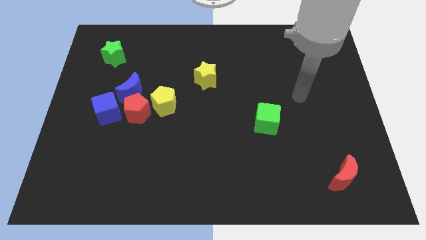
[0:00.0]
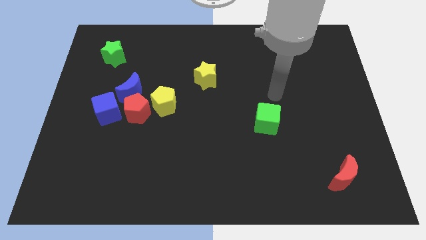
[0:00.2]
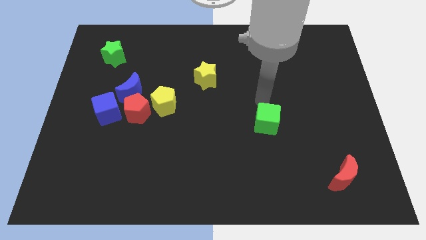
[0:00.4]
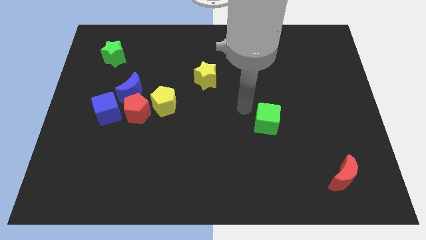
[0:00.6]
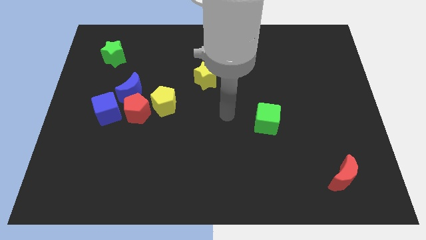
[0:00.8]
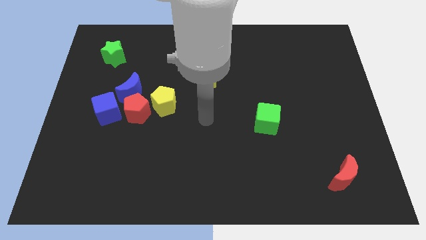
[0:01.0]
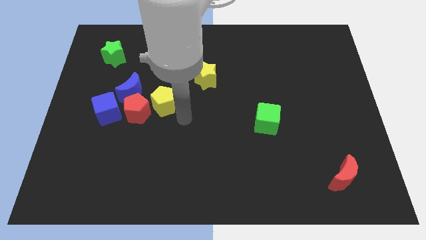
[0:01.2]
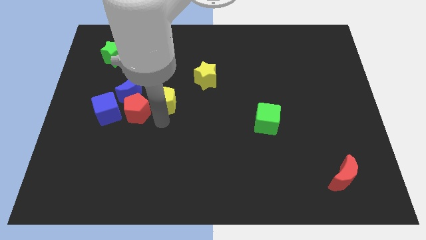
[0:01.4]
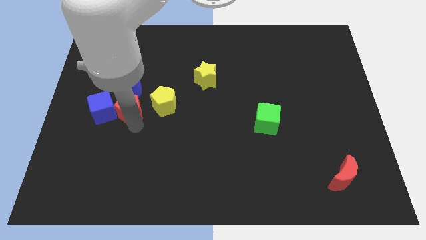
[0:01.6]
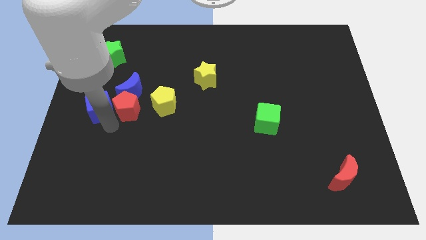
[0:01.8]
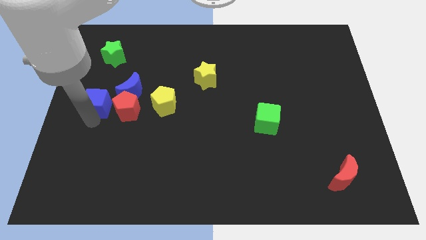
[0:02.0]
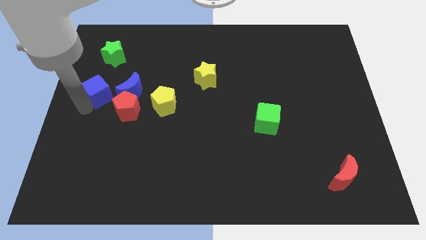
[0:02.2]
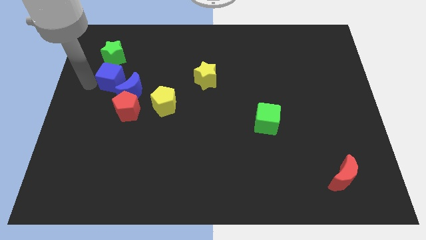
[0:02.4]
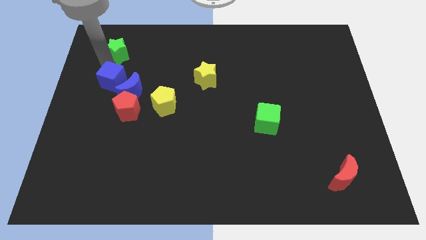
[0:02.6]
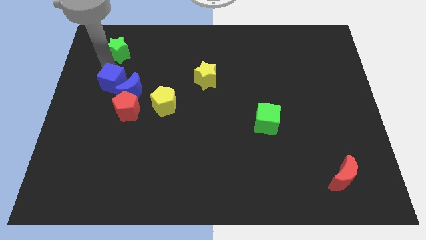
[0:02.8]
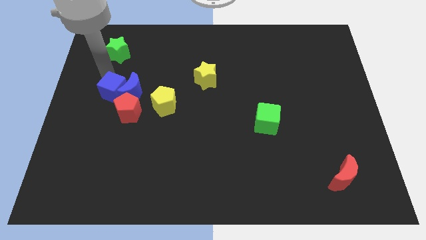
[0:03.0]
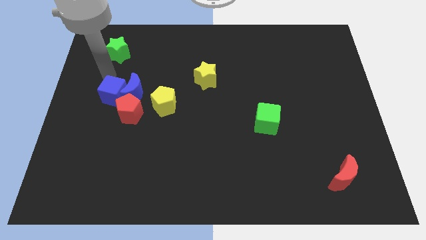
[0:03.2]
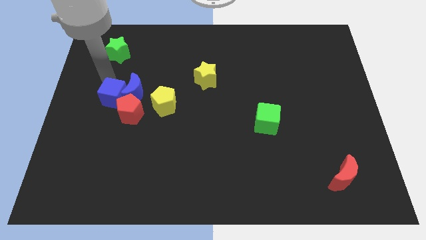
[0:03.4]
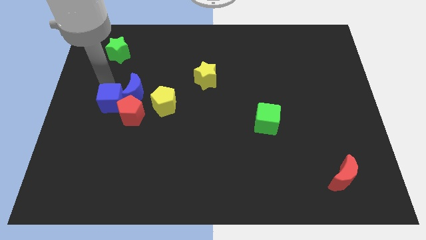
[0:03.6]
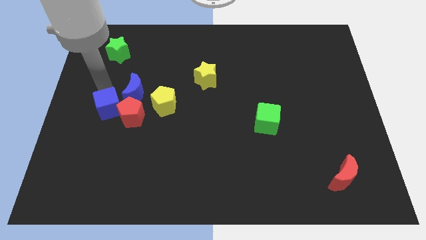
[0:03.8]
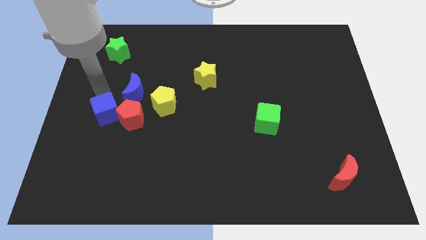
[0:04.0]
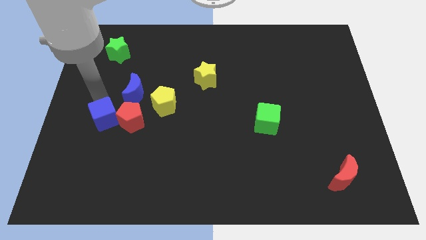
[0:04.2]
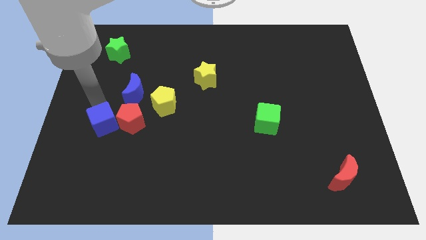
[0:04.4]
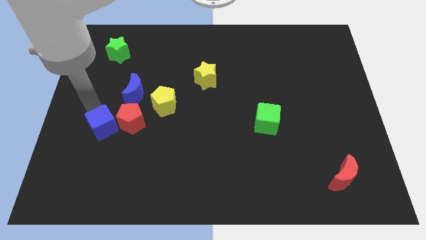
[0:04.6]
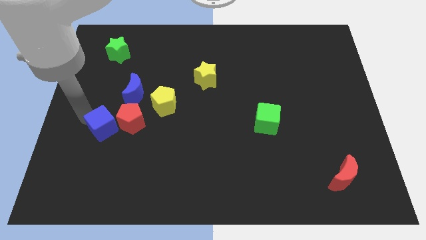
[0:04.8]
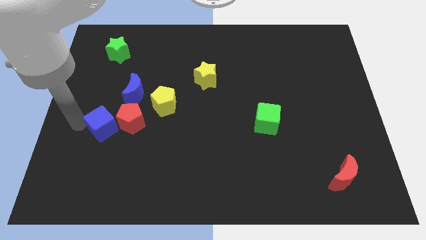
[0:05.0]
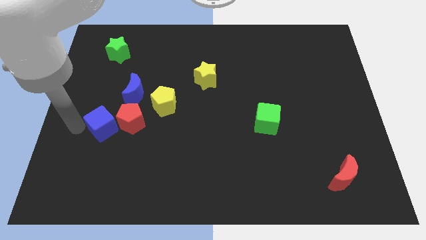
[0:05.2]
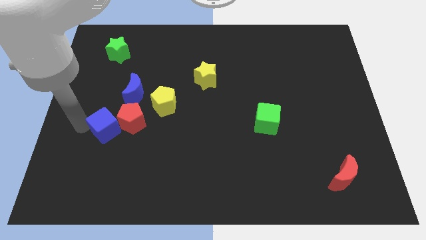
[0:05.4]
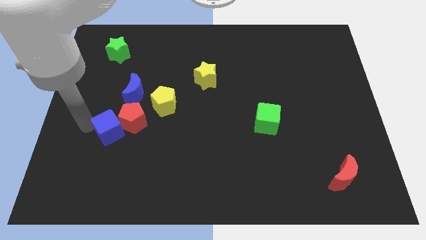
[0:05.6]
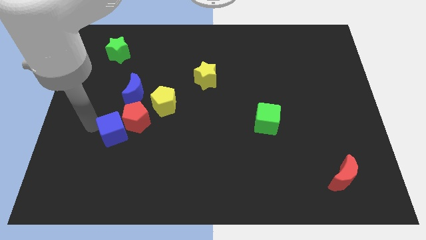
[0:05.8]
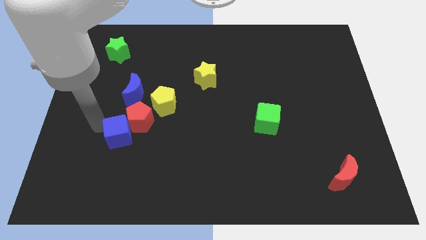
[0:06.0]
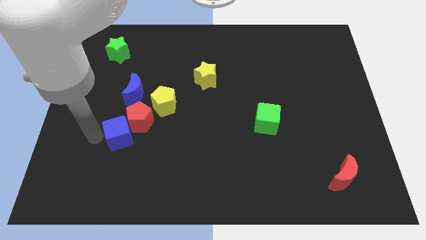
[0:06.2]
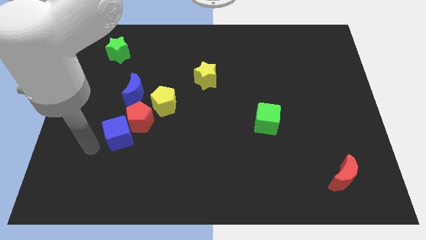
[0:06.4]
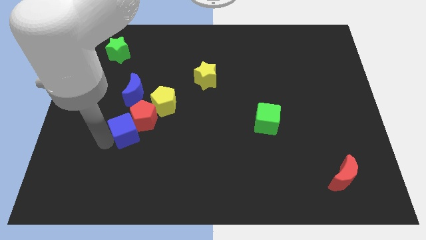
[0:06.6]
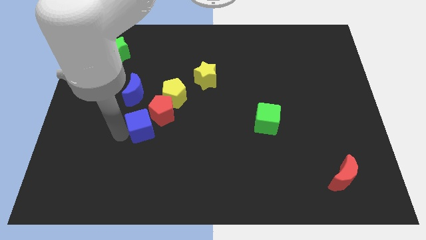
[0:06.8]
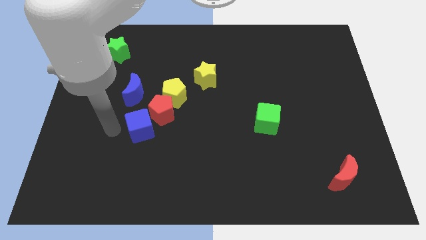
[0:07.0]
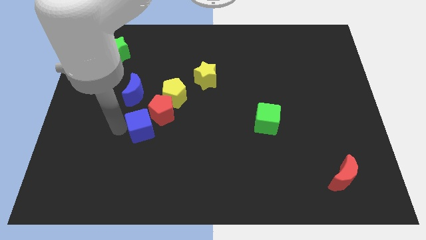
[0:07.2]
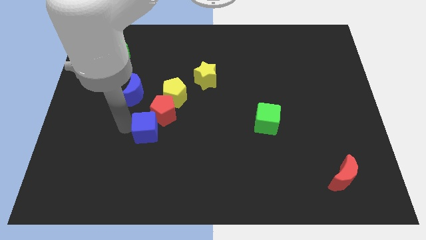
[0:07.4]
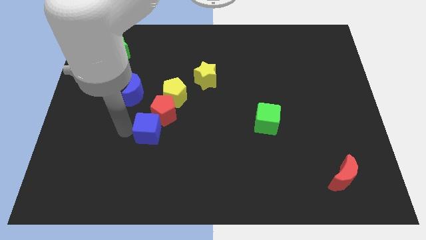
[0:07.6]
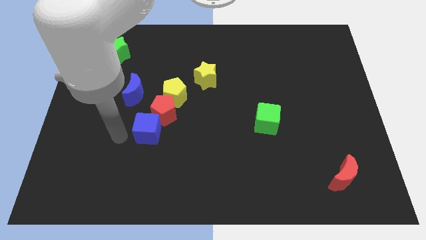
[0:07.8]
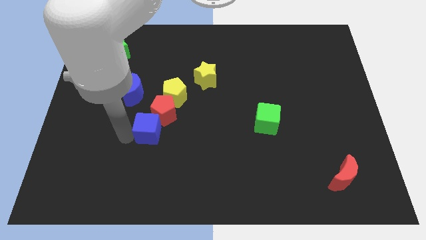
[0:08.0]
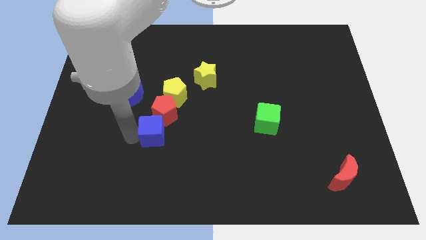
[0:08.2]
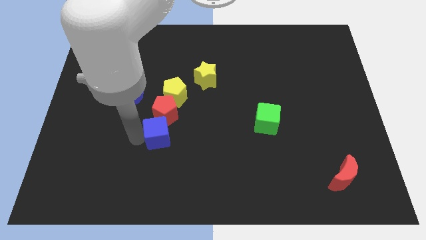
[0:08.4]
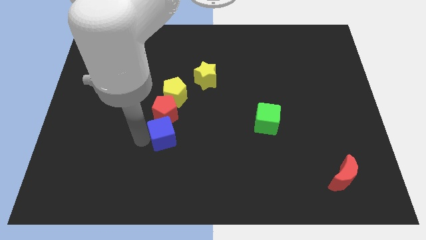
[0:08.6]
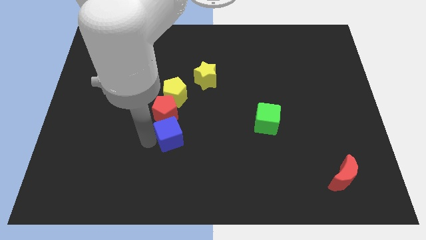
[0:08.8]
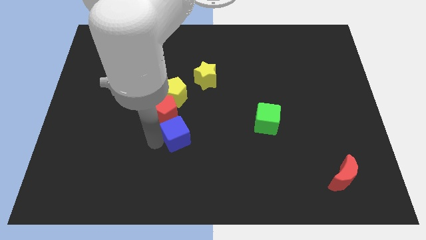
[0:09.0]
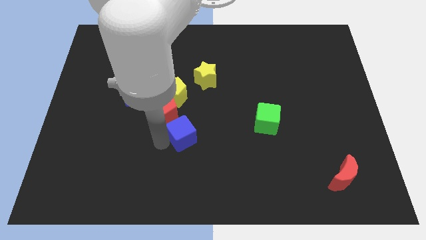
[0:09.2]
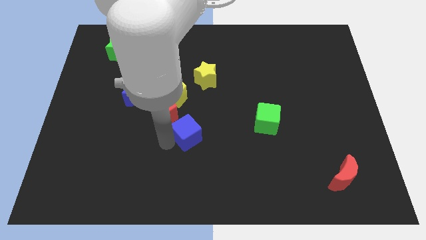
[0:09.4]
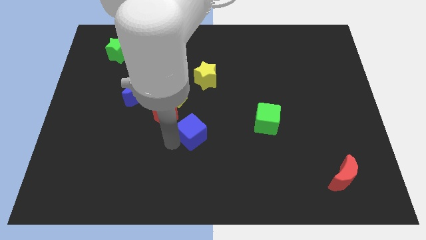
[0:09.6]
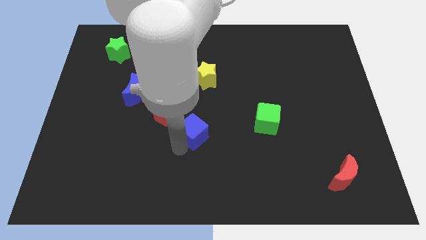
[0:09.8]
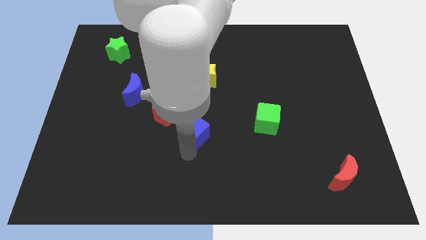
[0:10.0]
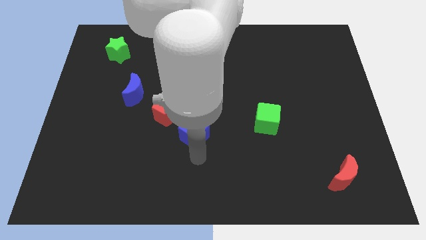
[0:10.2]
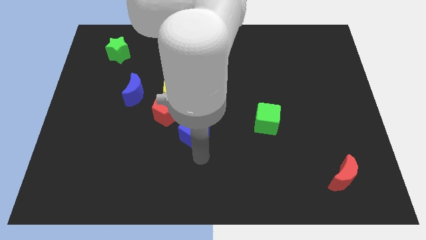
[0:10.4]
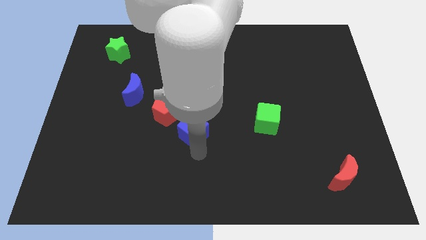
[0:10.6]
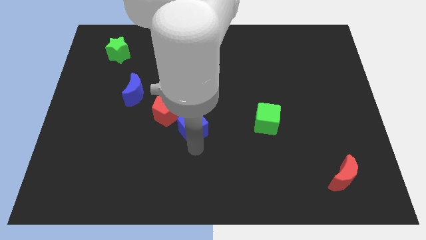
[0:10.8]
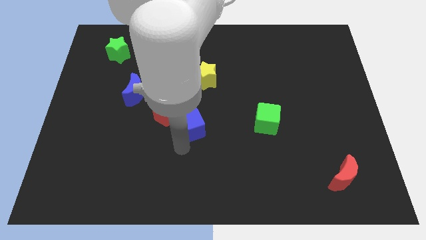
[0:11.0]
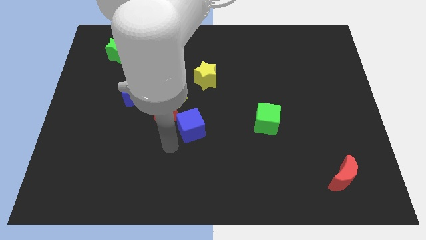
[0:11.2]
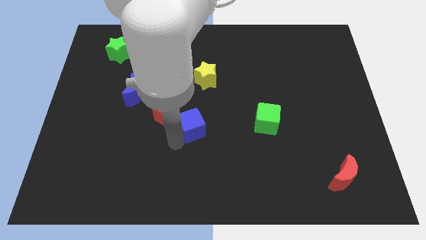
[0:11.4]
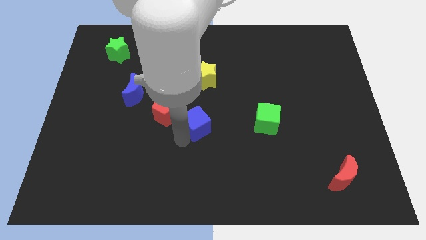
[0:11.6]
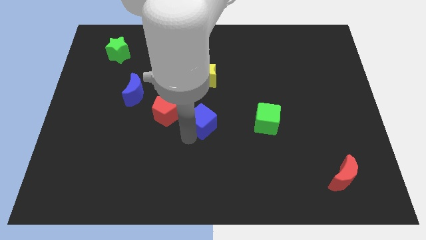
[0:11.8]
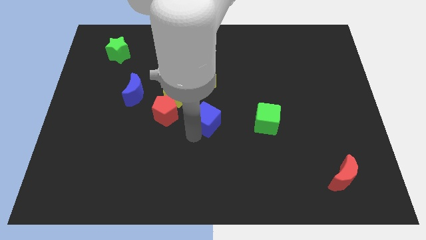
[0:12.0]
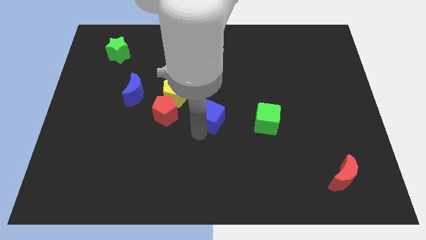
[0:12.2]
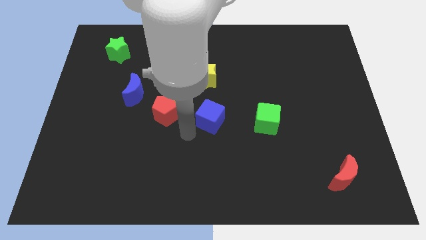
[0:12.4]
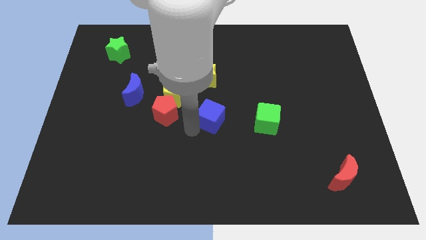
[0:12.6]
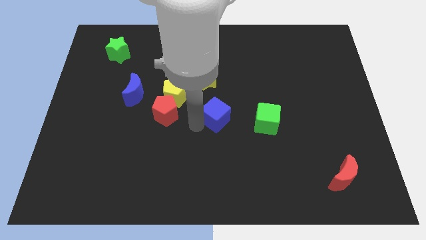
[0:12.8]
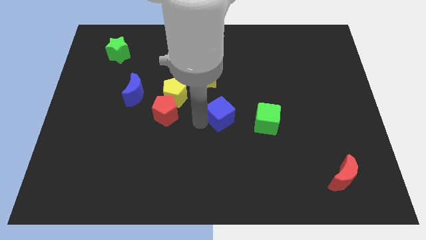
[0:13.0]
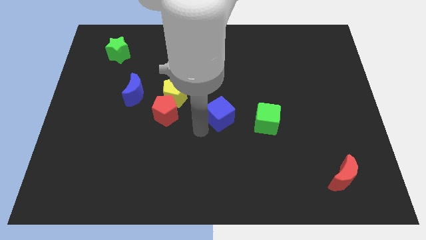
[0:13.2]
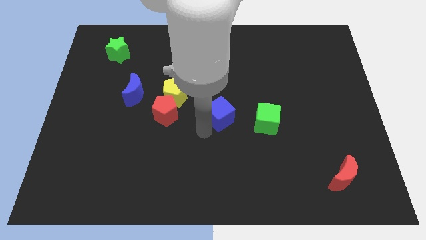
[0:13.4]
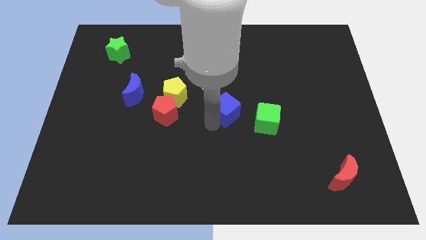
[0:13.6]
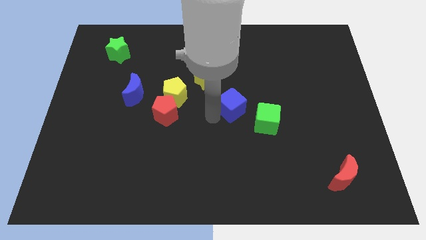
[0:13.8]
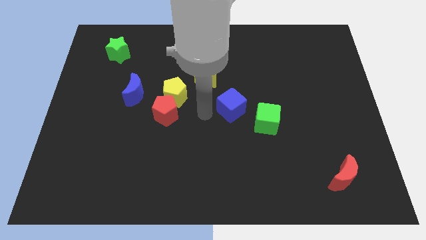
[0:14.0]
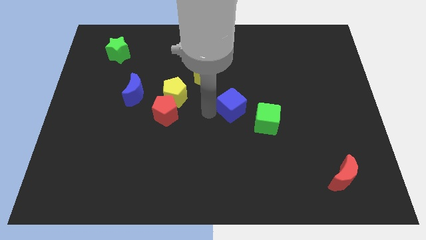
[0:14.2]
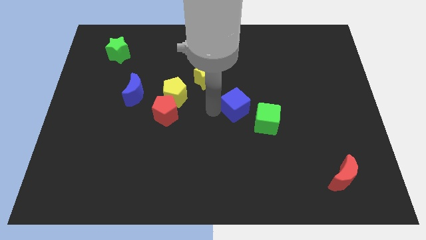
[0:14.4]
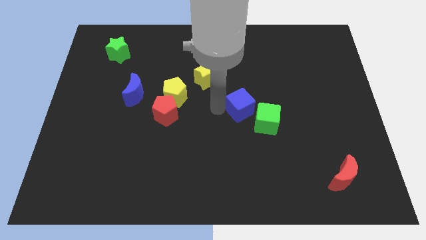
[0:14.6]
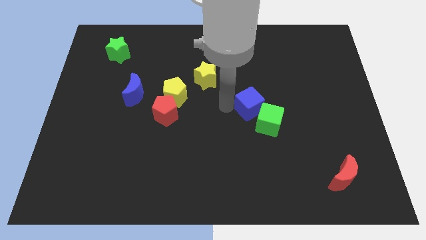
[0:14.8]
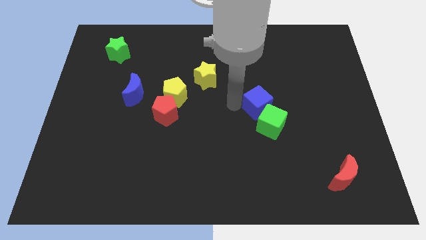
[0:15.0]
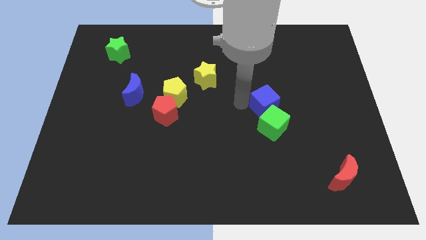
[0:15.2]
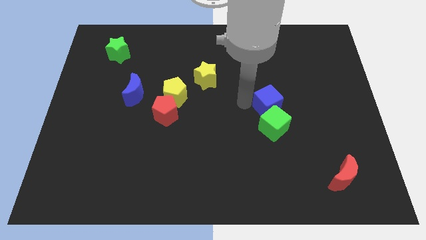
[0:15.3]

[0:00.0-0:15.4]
slide the blue cube to the top right side of the green cube
